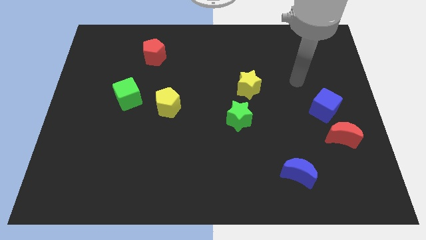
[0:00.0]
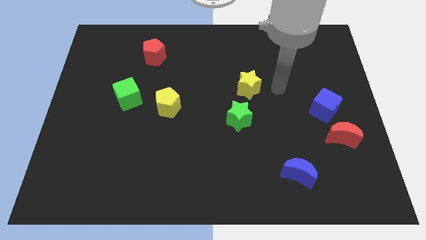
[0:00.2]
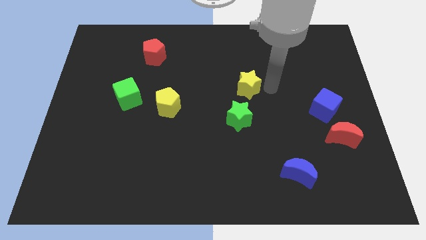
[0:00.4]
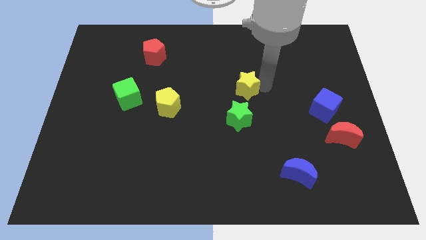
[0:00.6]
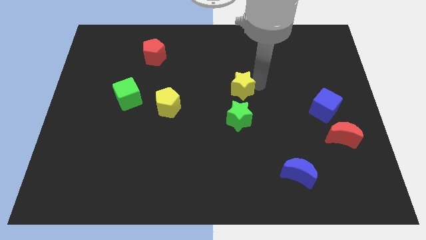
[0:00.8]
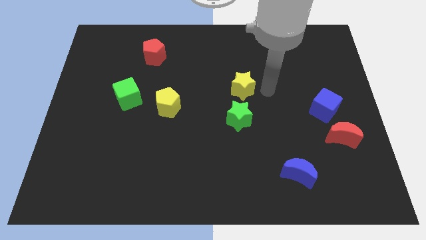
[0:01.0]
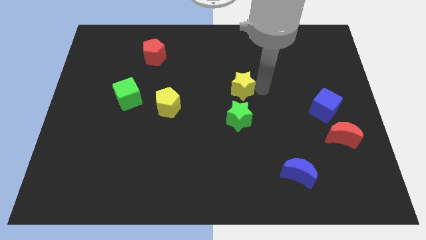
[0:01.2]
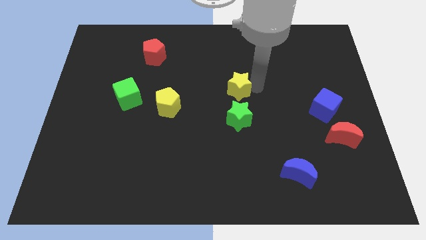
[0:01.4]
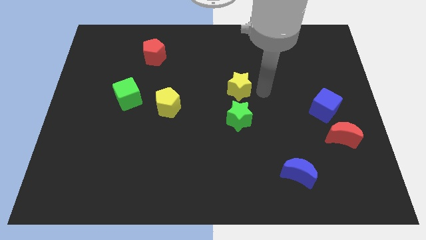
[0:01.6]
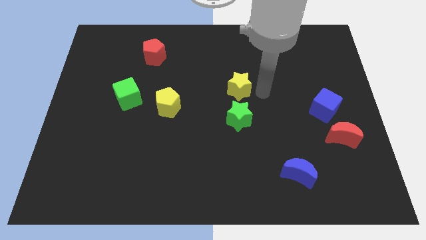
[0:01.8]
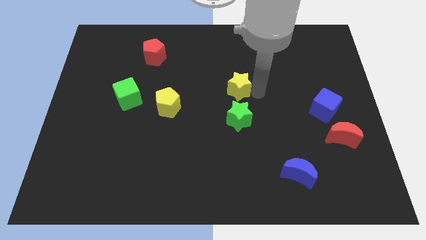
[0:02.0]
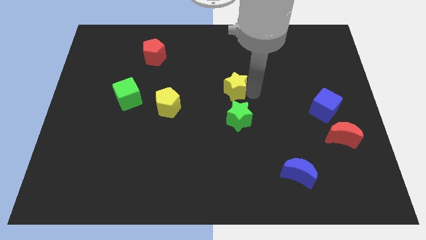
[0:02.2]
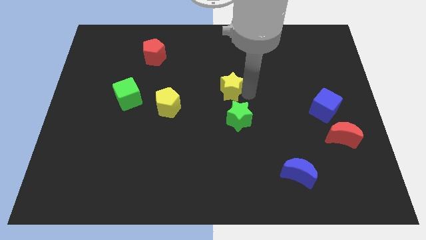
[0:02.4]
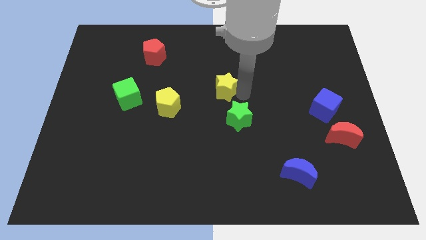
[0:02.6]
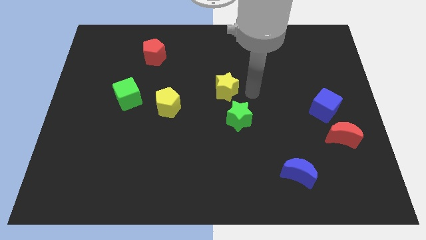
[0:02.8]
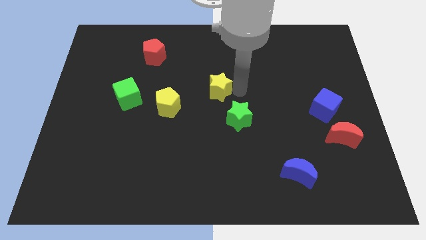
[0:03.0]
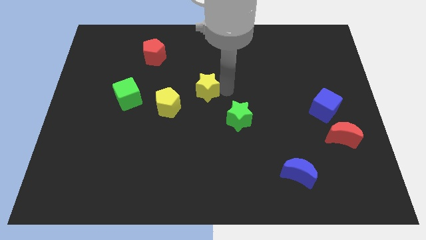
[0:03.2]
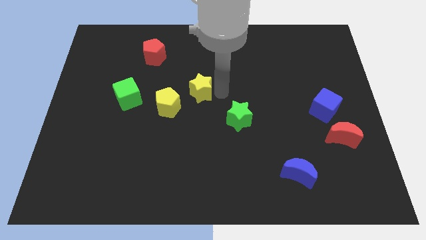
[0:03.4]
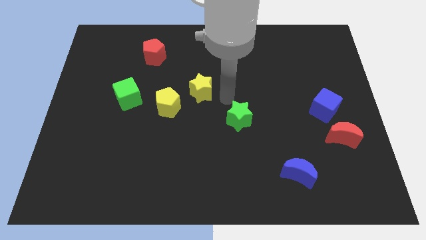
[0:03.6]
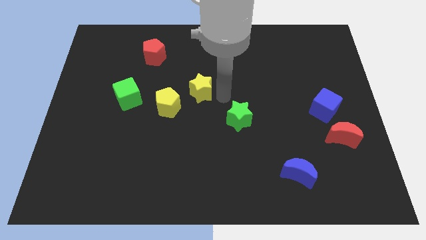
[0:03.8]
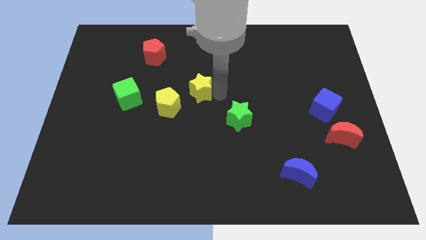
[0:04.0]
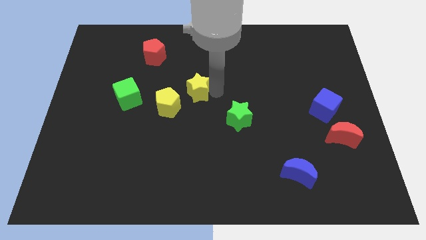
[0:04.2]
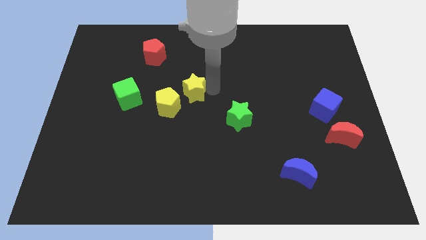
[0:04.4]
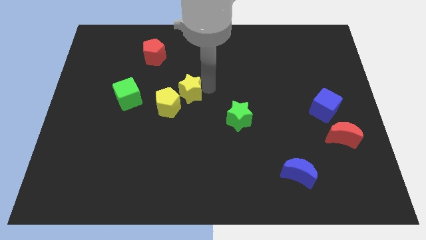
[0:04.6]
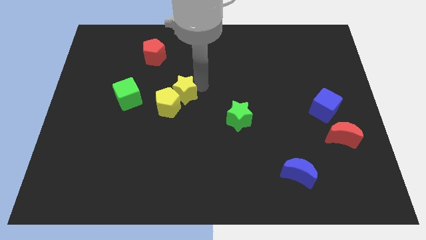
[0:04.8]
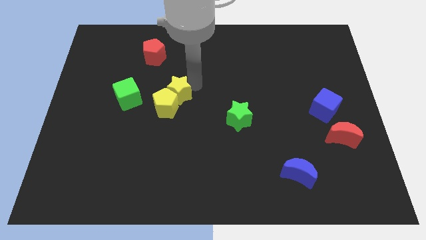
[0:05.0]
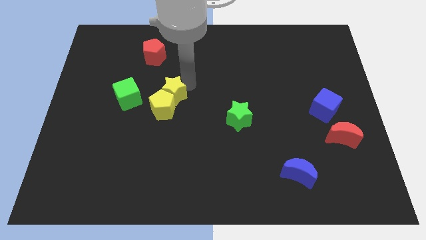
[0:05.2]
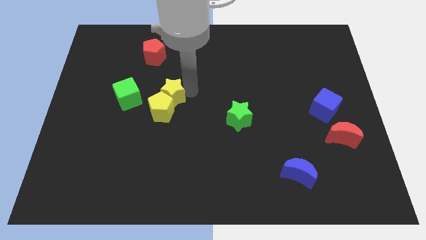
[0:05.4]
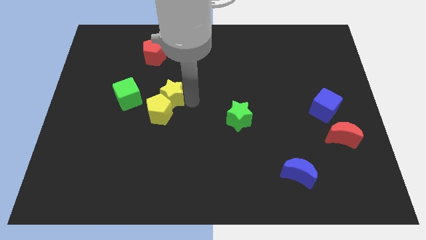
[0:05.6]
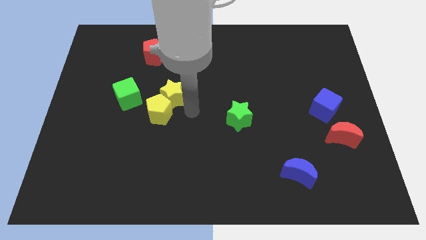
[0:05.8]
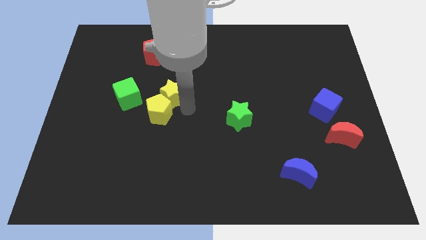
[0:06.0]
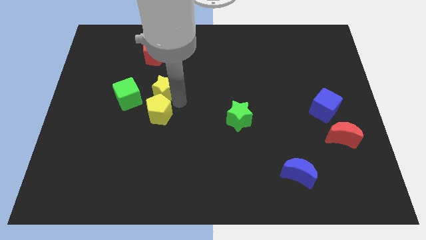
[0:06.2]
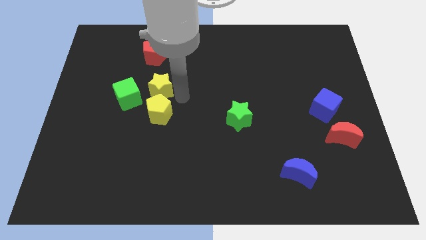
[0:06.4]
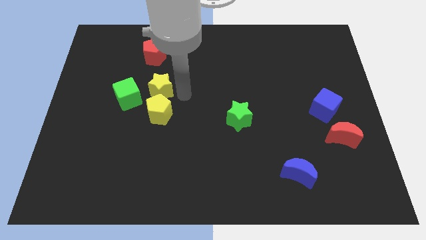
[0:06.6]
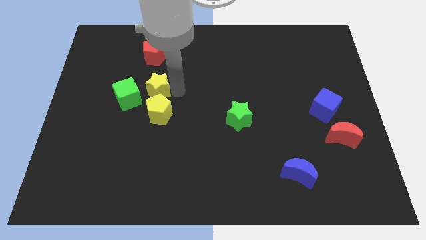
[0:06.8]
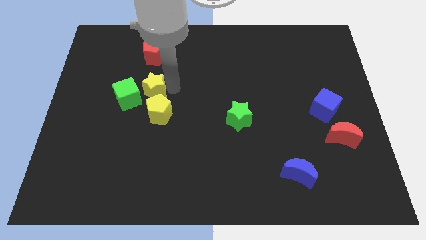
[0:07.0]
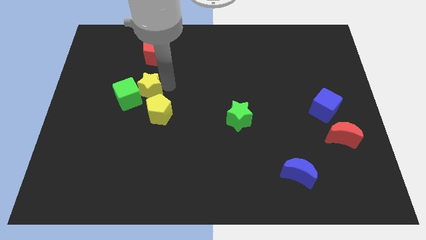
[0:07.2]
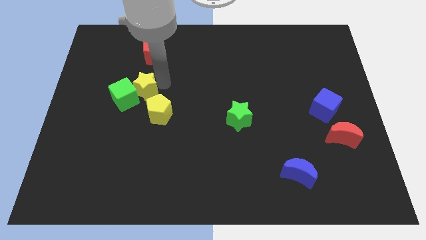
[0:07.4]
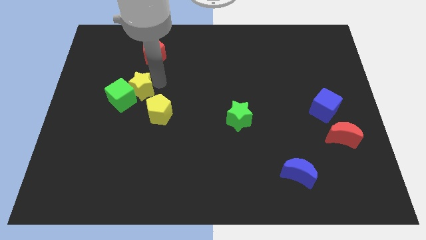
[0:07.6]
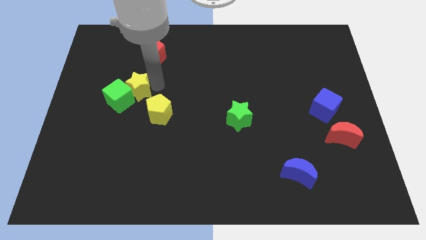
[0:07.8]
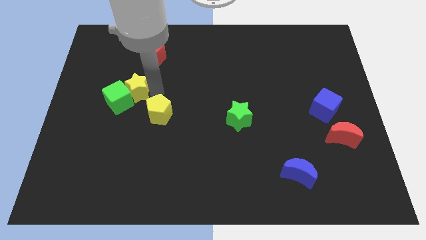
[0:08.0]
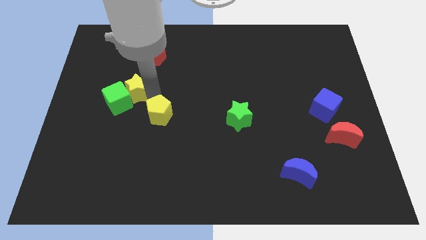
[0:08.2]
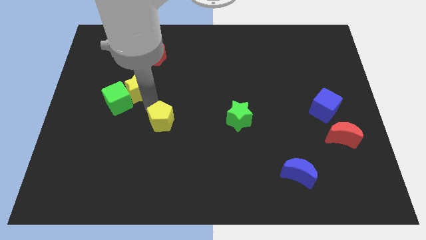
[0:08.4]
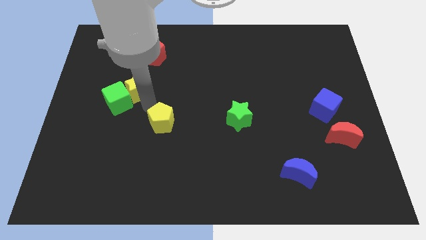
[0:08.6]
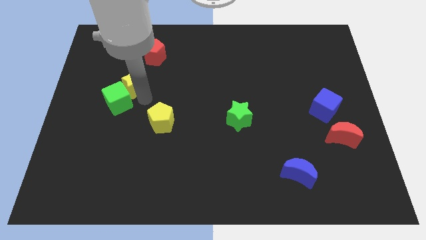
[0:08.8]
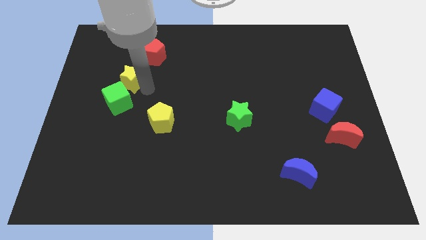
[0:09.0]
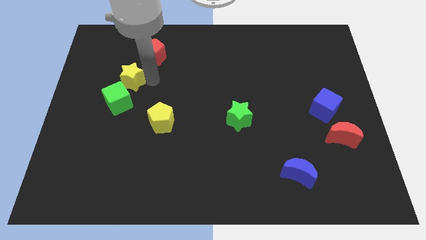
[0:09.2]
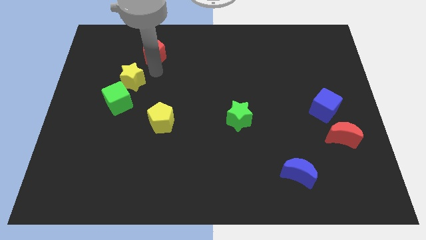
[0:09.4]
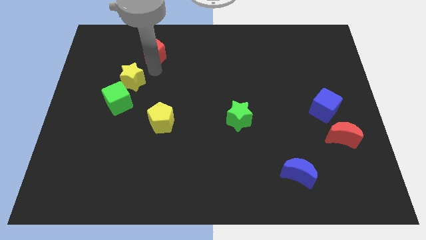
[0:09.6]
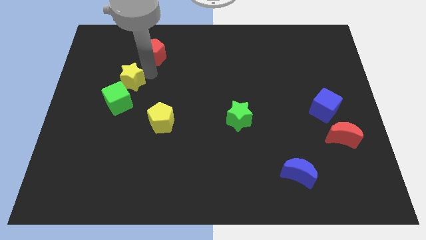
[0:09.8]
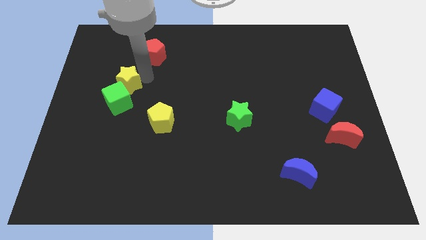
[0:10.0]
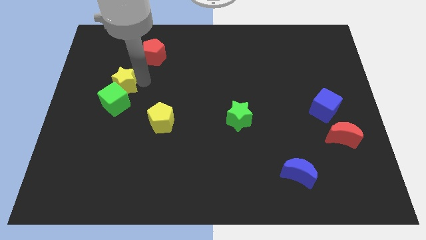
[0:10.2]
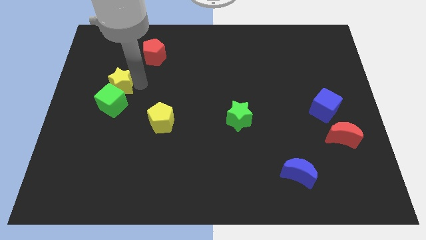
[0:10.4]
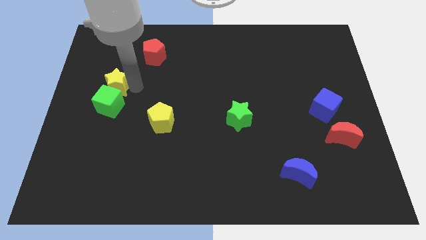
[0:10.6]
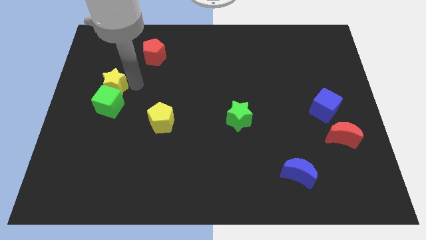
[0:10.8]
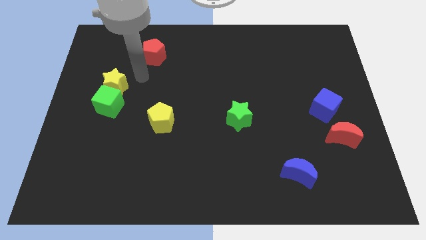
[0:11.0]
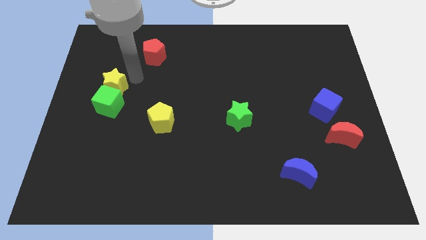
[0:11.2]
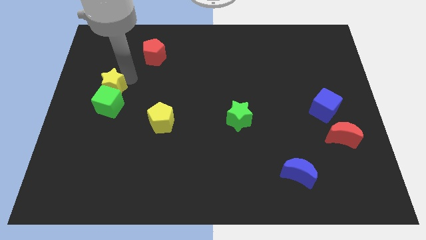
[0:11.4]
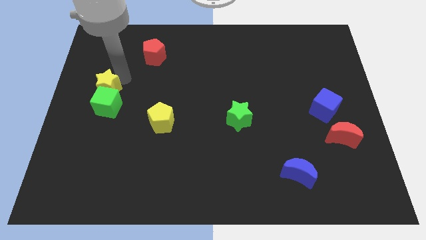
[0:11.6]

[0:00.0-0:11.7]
push the yellow star to the left side

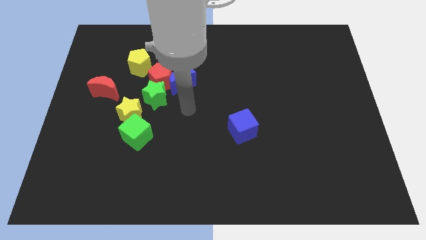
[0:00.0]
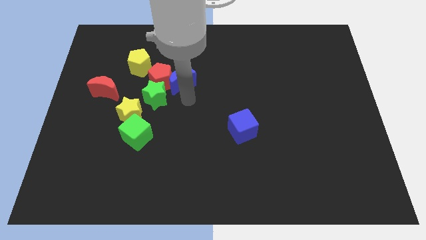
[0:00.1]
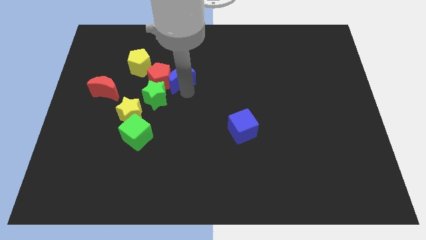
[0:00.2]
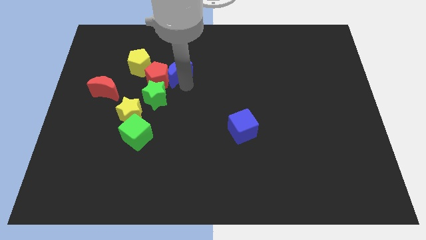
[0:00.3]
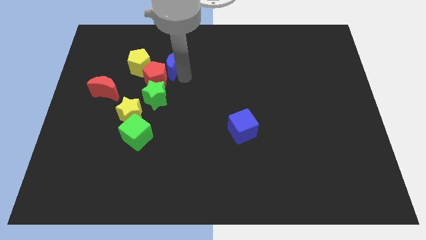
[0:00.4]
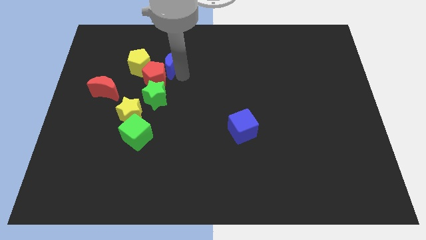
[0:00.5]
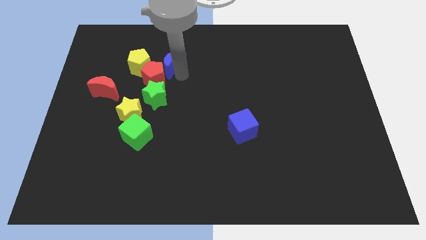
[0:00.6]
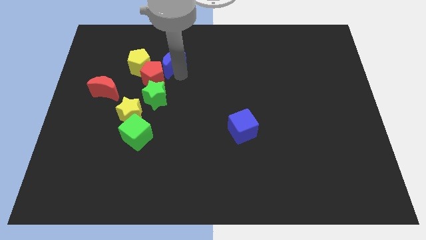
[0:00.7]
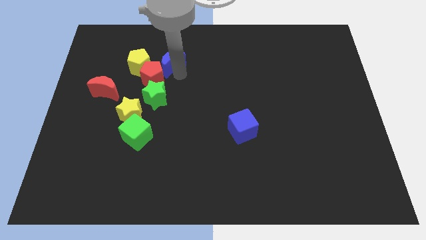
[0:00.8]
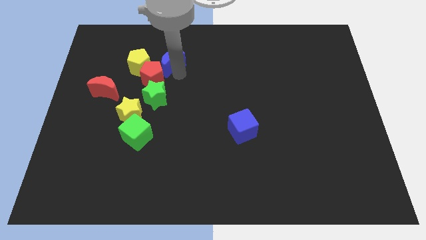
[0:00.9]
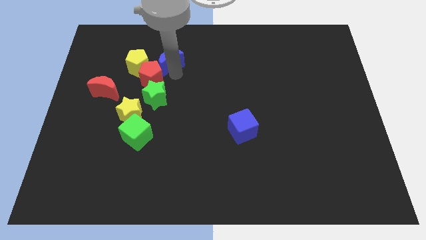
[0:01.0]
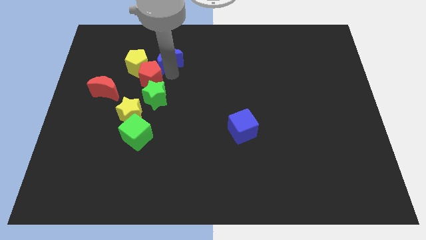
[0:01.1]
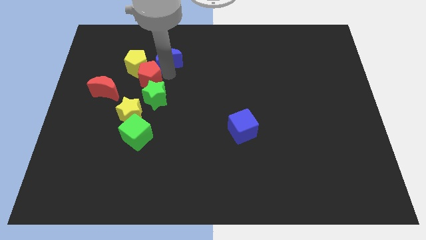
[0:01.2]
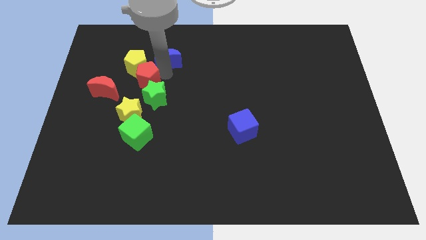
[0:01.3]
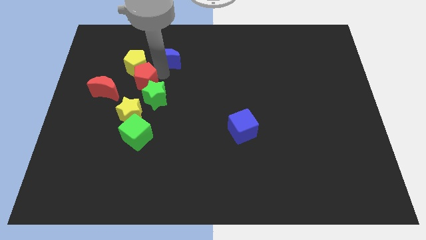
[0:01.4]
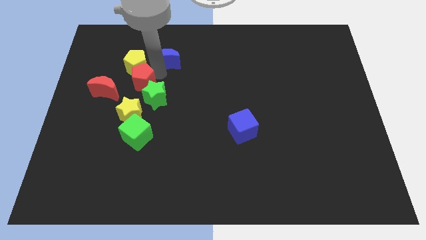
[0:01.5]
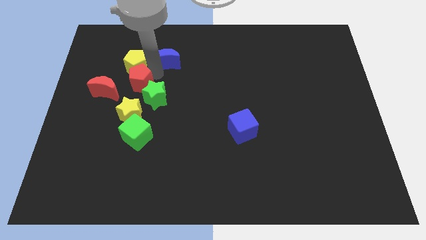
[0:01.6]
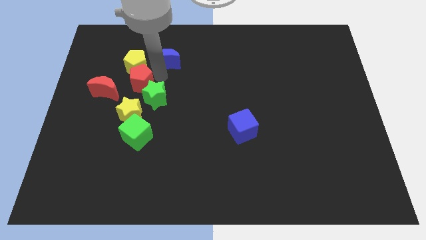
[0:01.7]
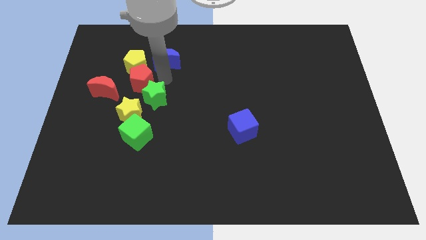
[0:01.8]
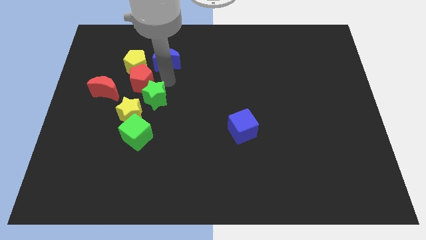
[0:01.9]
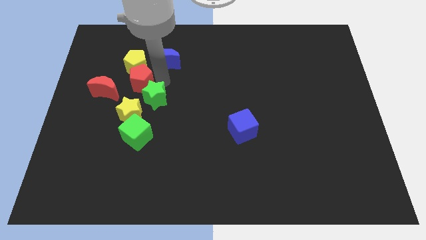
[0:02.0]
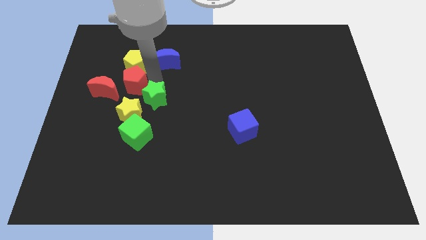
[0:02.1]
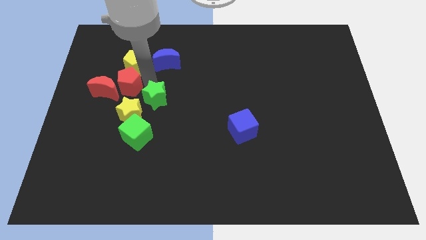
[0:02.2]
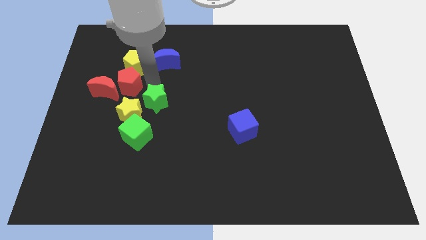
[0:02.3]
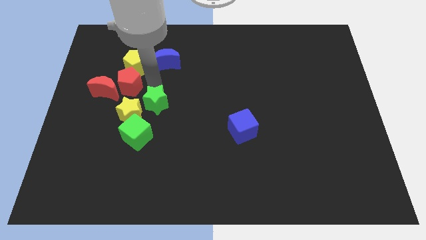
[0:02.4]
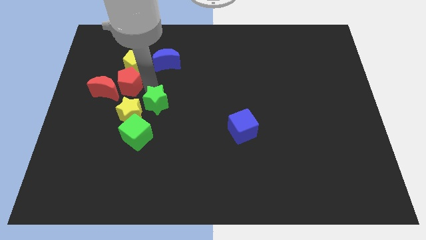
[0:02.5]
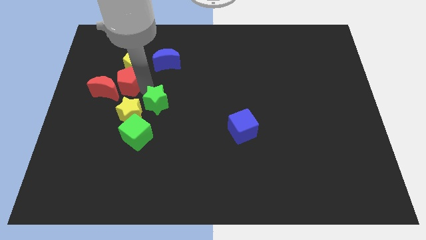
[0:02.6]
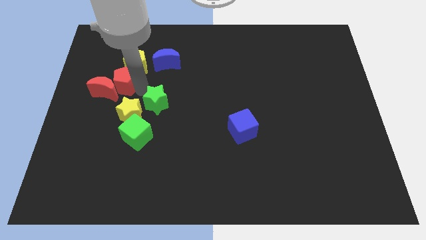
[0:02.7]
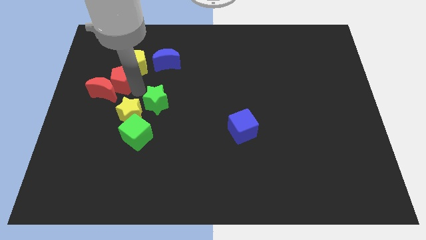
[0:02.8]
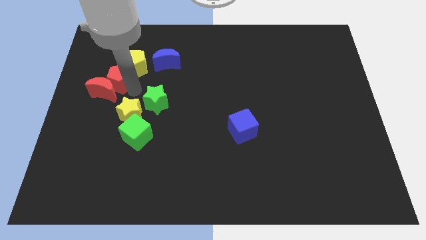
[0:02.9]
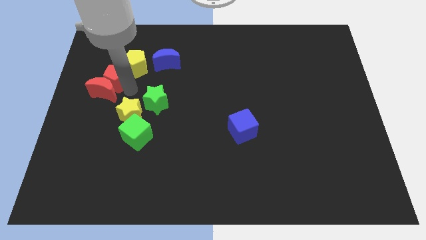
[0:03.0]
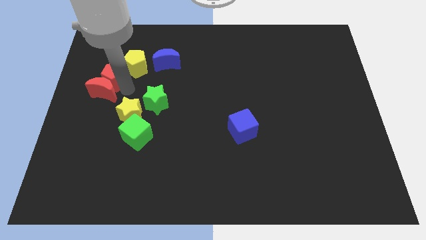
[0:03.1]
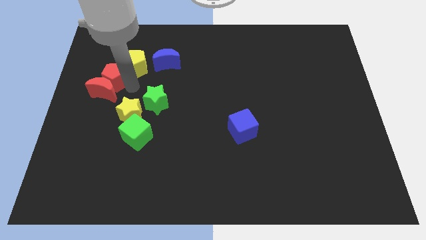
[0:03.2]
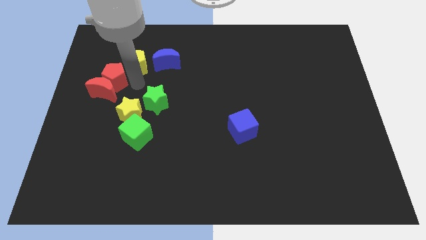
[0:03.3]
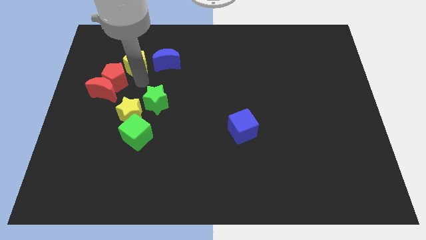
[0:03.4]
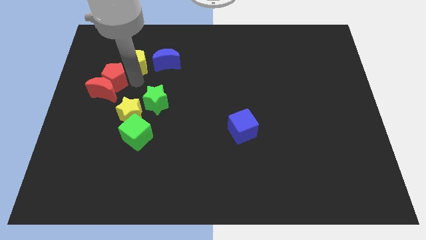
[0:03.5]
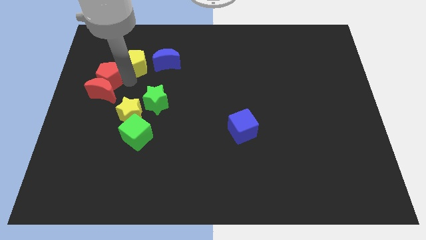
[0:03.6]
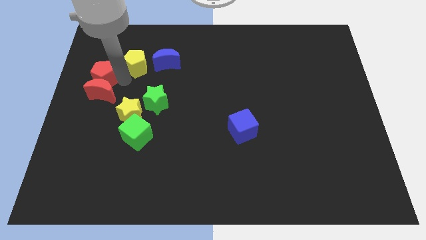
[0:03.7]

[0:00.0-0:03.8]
slide the red pentagon to the center left
